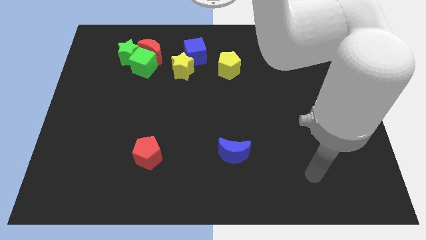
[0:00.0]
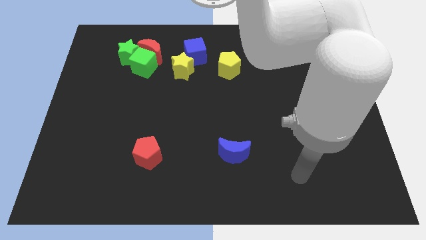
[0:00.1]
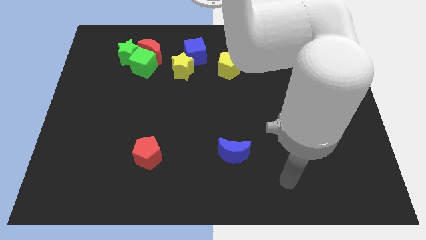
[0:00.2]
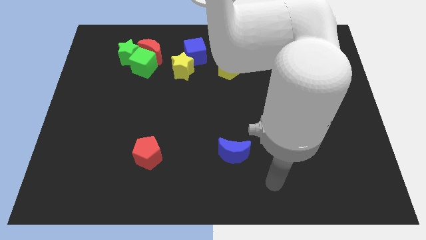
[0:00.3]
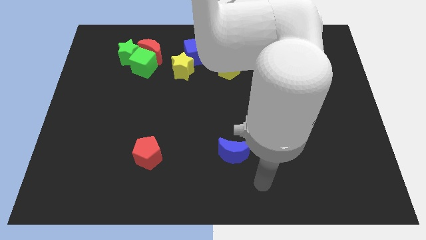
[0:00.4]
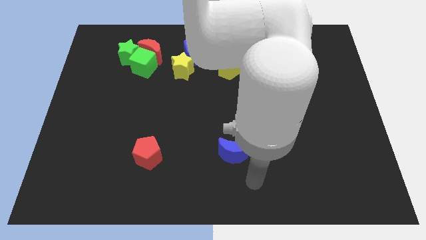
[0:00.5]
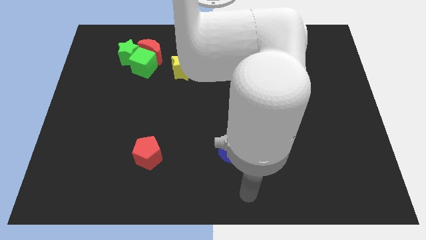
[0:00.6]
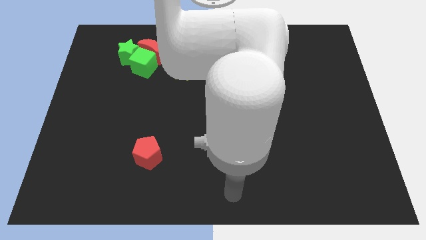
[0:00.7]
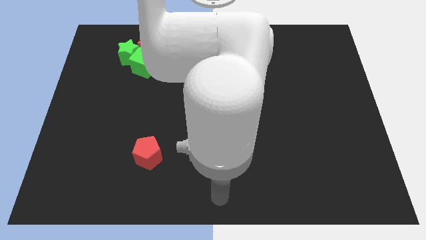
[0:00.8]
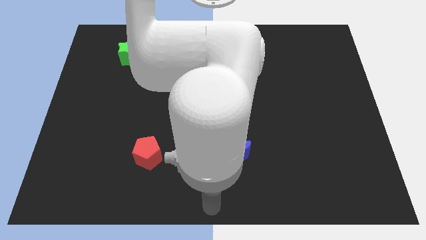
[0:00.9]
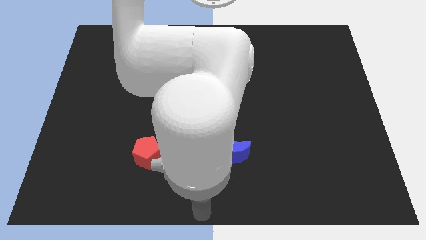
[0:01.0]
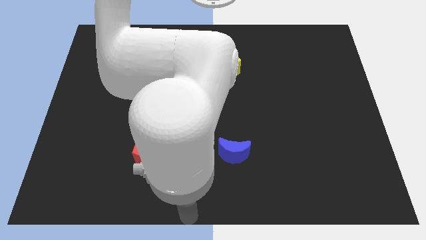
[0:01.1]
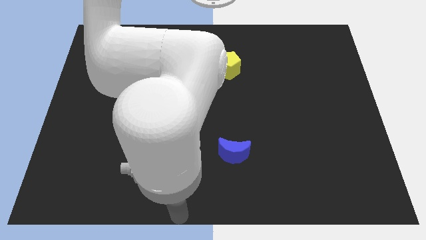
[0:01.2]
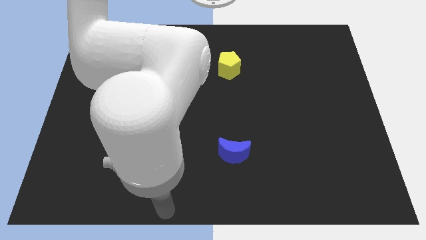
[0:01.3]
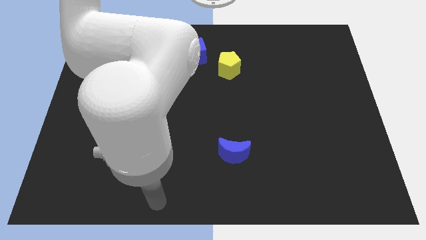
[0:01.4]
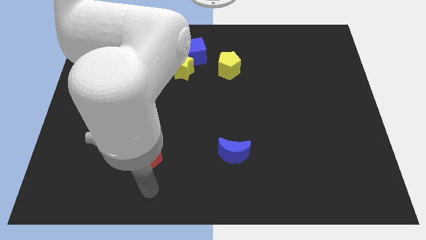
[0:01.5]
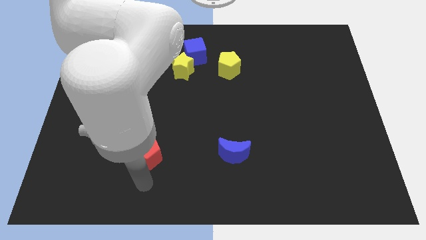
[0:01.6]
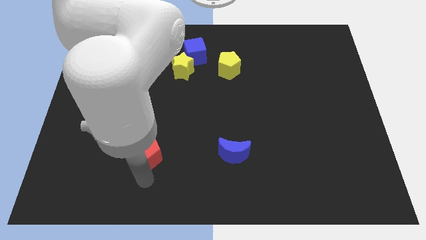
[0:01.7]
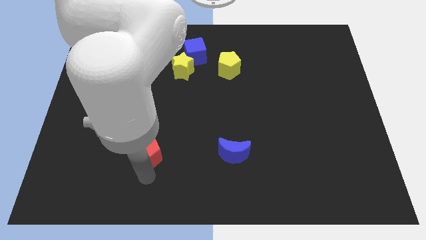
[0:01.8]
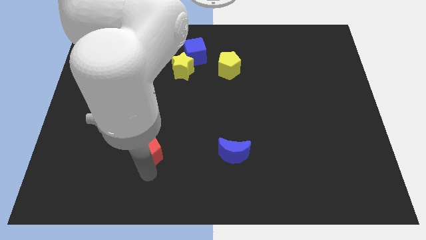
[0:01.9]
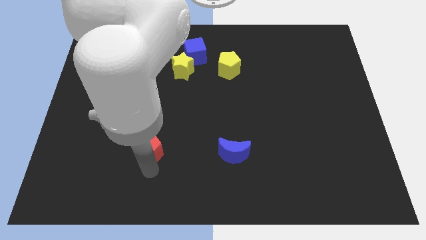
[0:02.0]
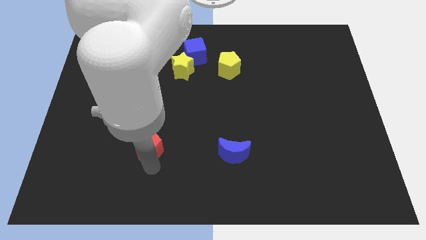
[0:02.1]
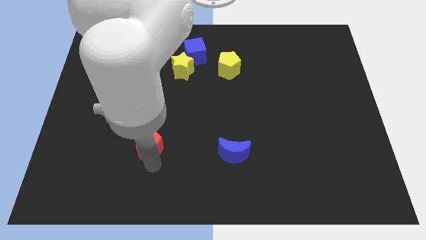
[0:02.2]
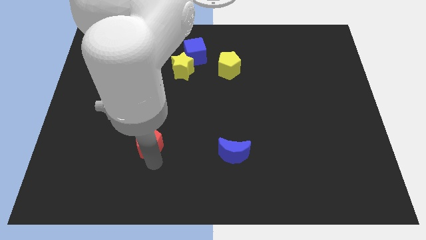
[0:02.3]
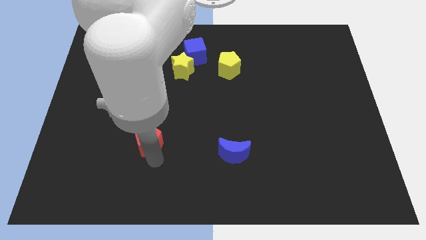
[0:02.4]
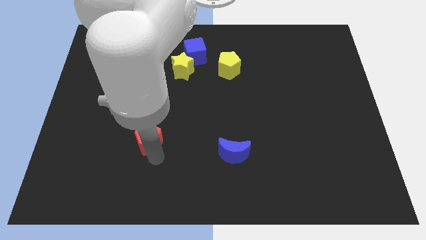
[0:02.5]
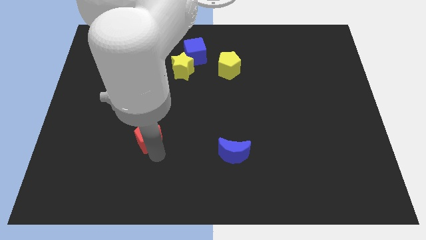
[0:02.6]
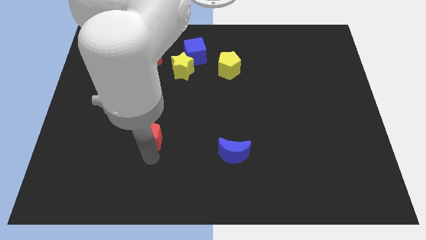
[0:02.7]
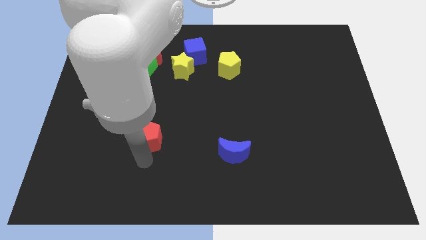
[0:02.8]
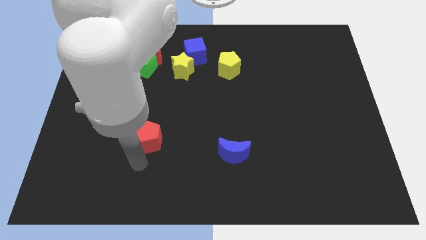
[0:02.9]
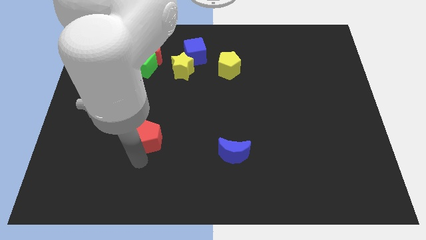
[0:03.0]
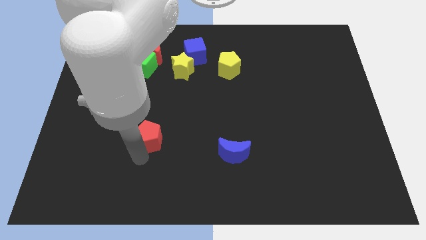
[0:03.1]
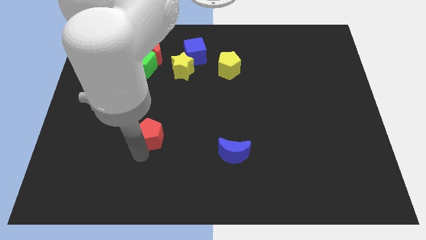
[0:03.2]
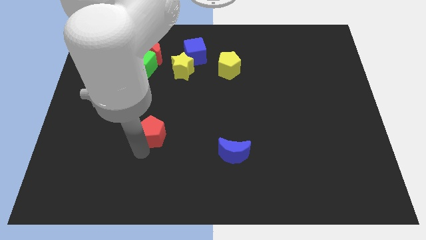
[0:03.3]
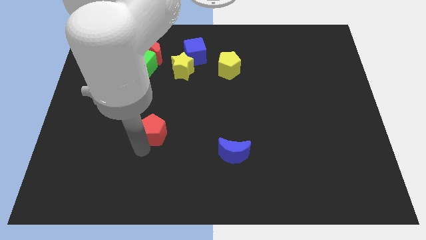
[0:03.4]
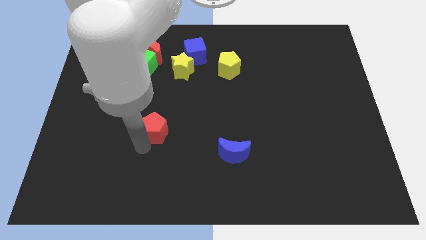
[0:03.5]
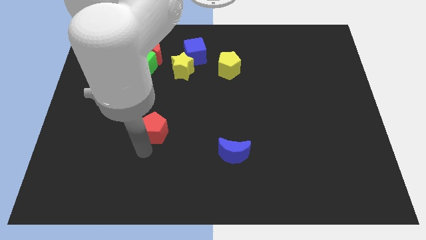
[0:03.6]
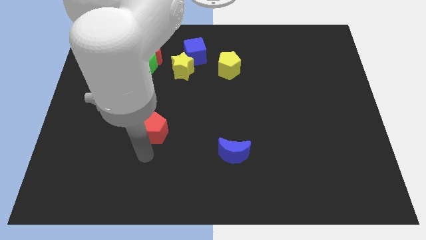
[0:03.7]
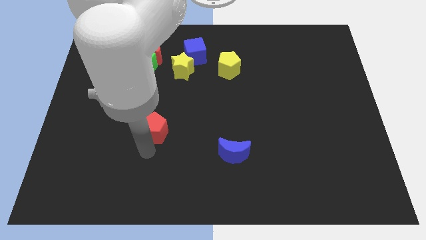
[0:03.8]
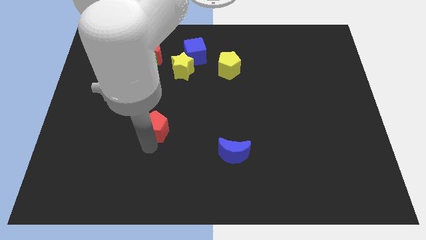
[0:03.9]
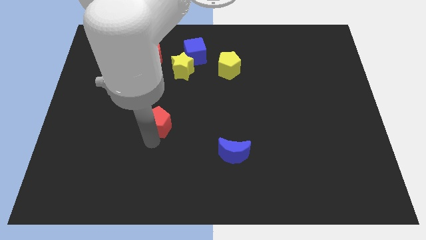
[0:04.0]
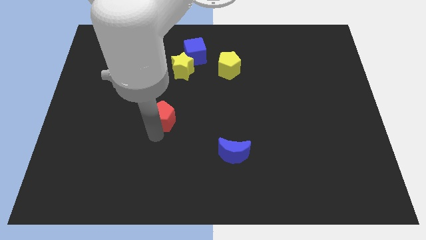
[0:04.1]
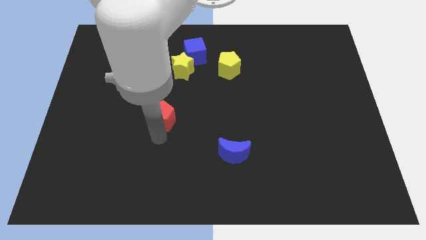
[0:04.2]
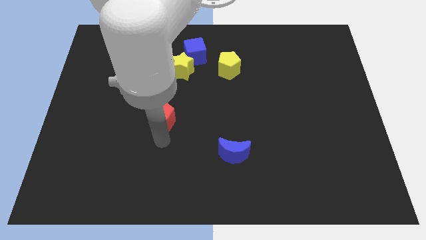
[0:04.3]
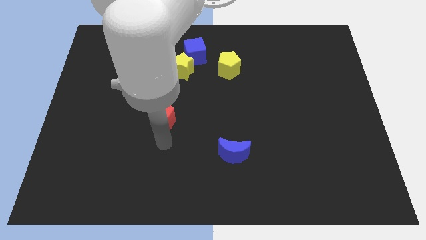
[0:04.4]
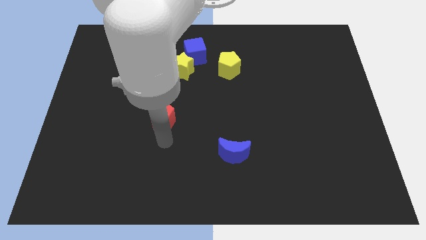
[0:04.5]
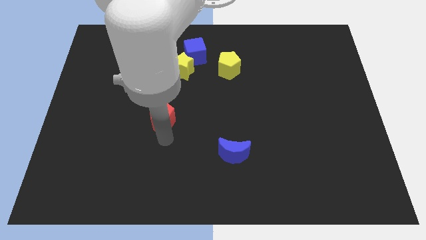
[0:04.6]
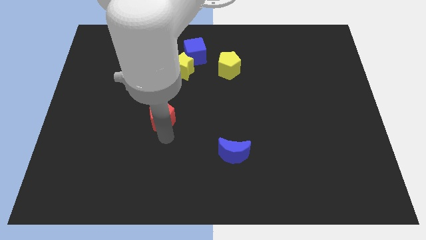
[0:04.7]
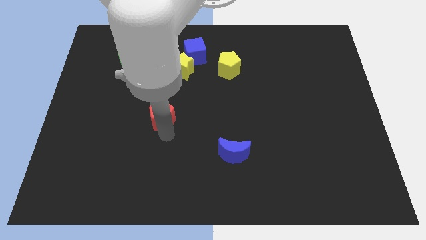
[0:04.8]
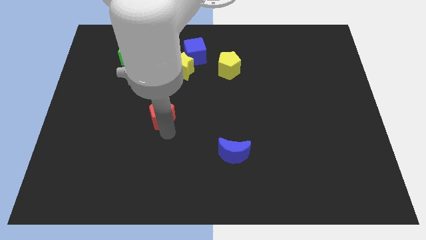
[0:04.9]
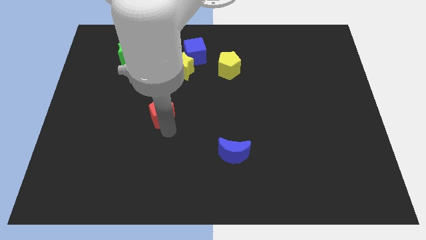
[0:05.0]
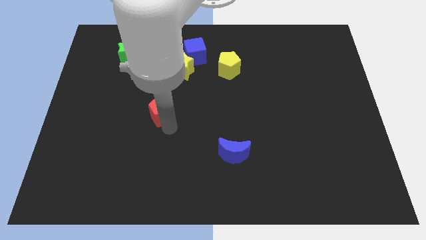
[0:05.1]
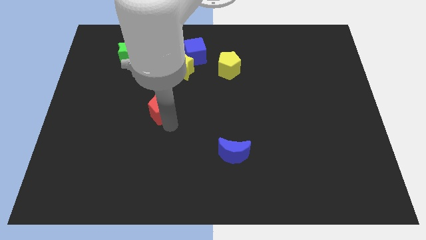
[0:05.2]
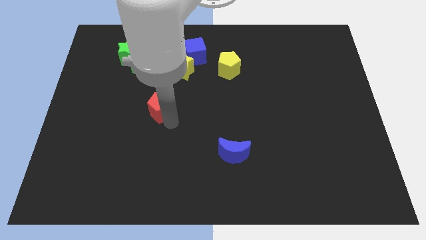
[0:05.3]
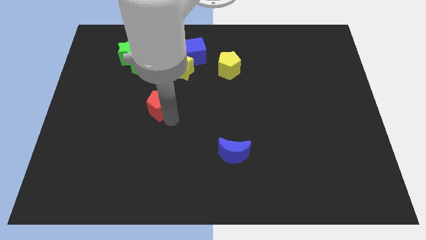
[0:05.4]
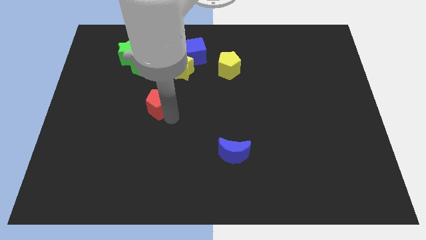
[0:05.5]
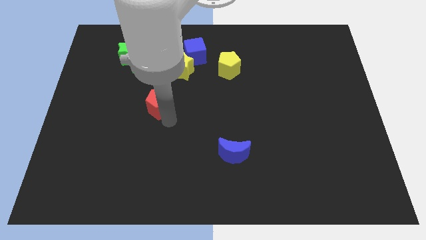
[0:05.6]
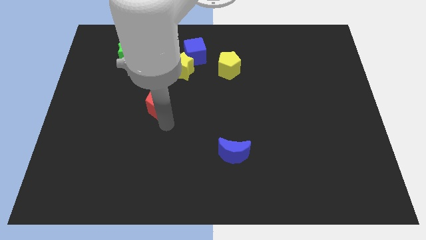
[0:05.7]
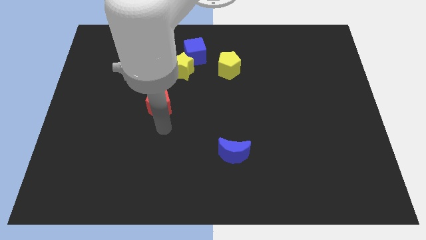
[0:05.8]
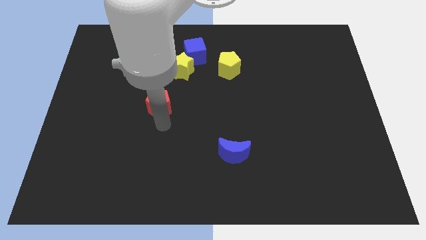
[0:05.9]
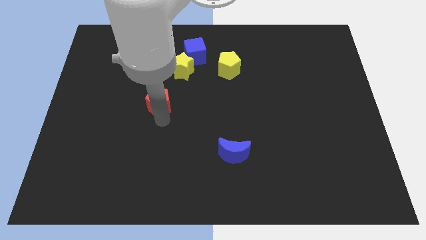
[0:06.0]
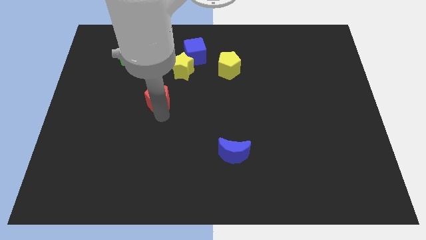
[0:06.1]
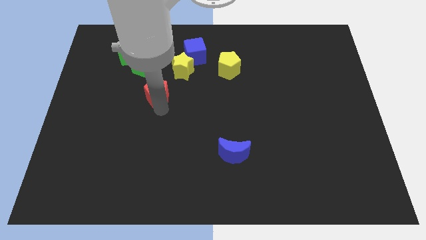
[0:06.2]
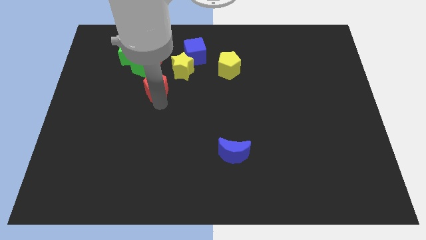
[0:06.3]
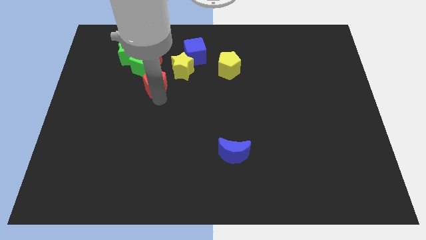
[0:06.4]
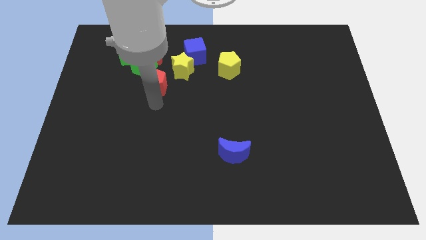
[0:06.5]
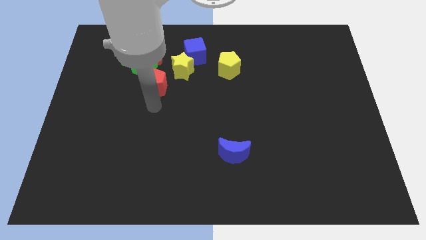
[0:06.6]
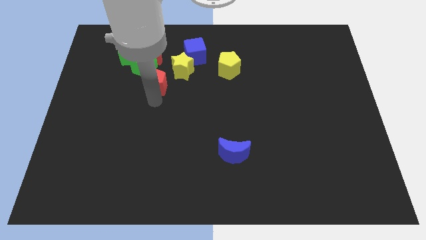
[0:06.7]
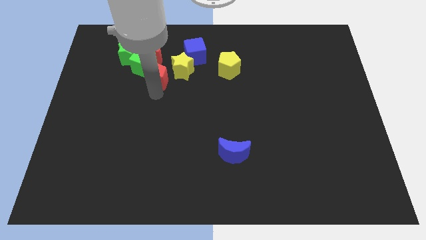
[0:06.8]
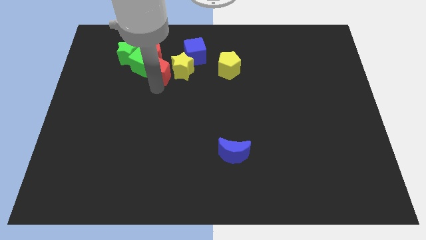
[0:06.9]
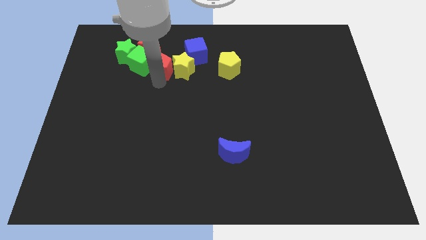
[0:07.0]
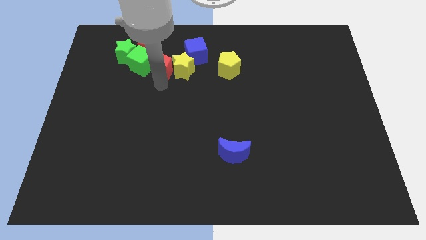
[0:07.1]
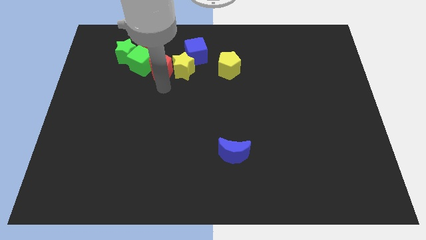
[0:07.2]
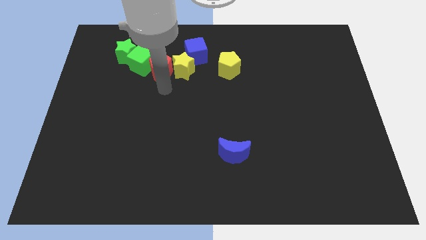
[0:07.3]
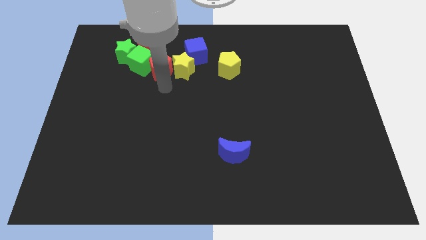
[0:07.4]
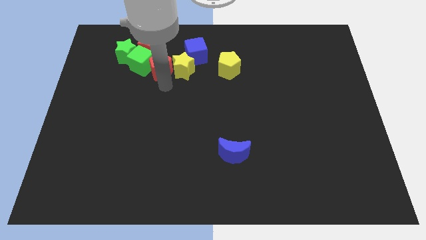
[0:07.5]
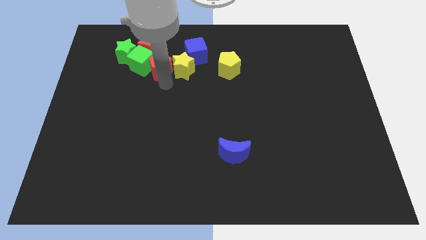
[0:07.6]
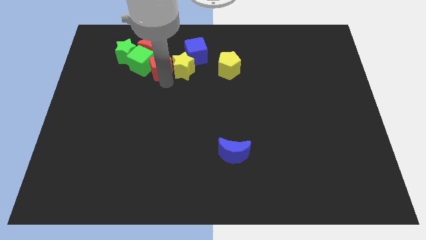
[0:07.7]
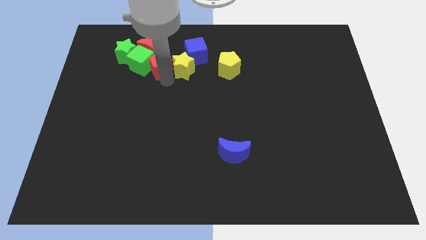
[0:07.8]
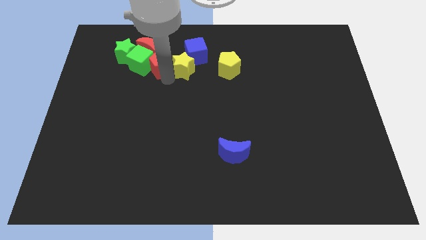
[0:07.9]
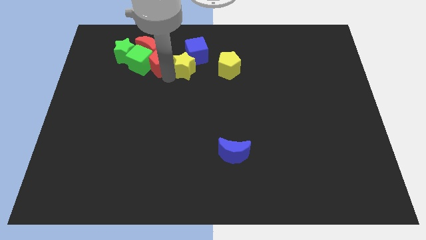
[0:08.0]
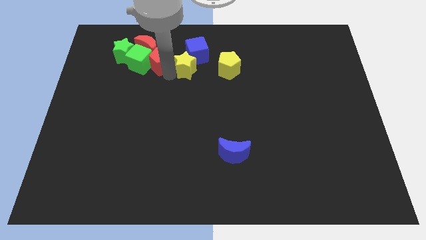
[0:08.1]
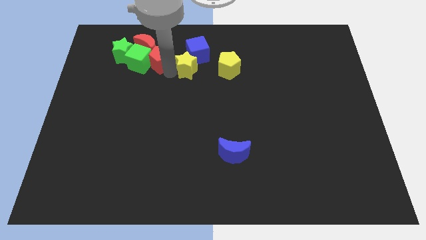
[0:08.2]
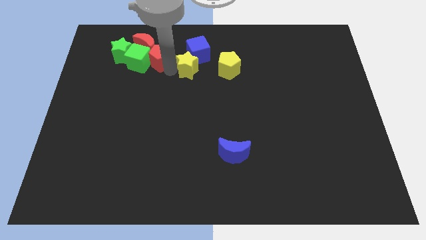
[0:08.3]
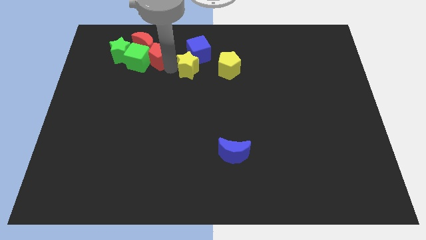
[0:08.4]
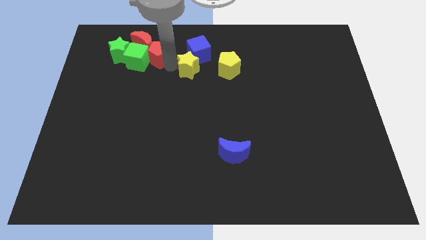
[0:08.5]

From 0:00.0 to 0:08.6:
put the red pentagon close to the red moon
